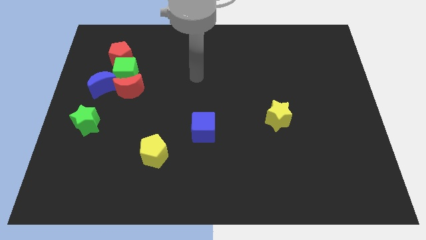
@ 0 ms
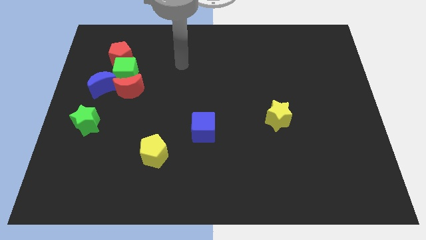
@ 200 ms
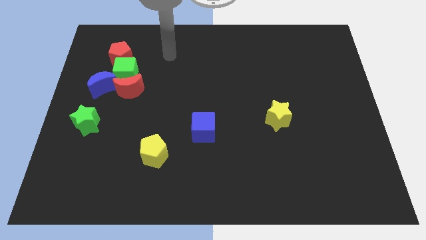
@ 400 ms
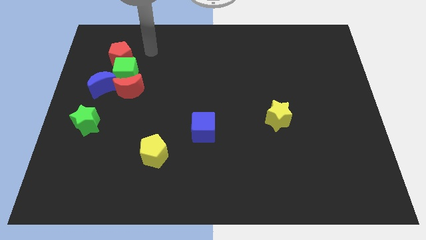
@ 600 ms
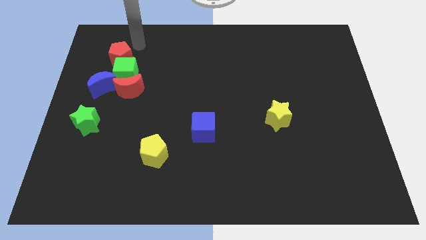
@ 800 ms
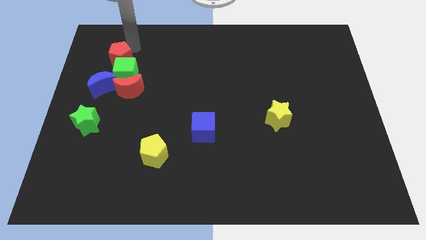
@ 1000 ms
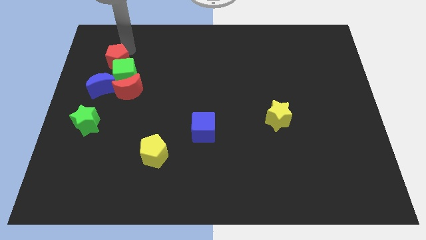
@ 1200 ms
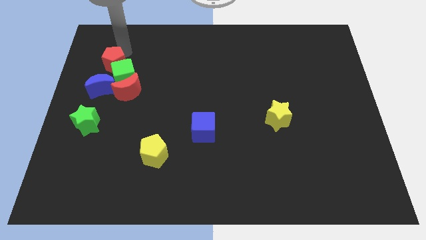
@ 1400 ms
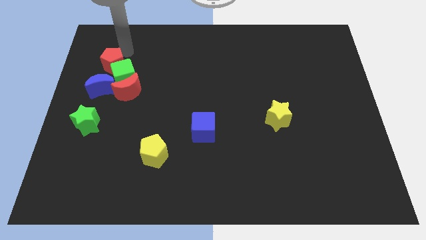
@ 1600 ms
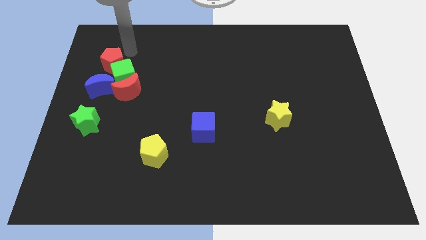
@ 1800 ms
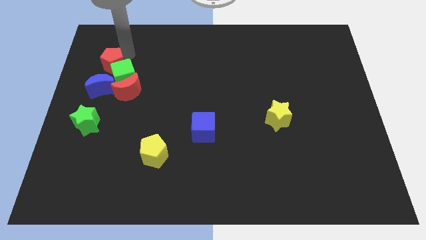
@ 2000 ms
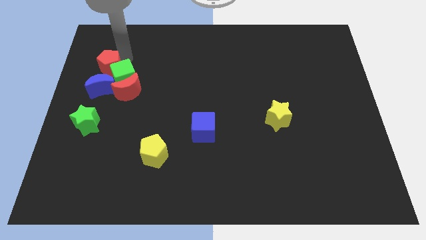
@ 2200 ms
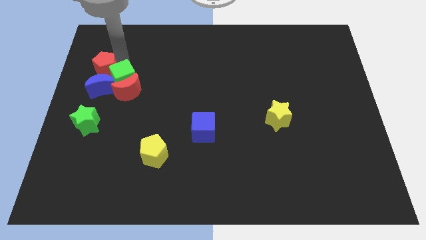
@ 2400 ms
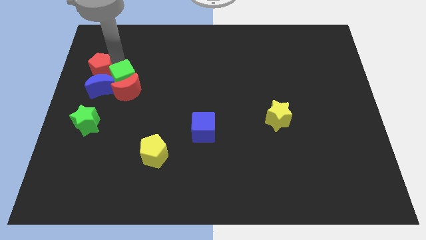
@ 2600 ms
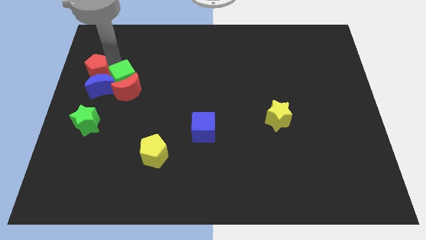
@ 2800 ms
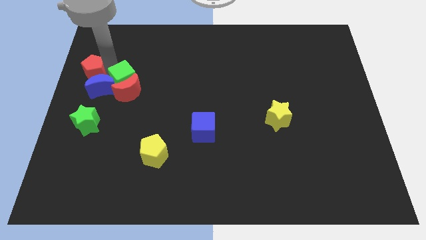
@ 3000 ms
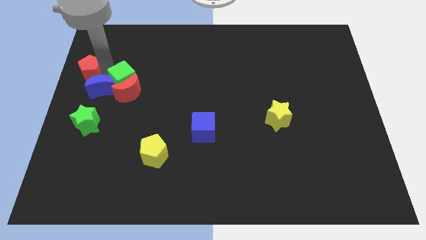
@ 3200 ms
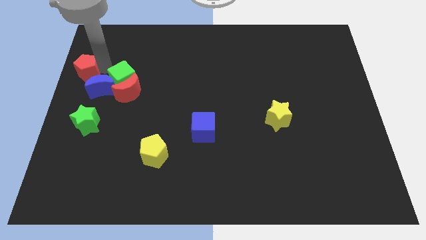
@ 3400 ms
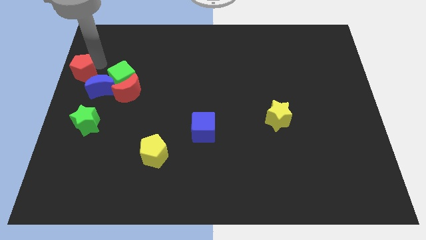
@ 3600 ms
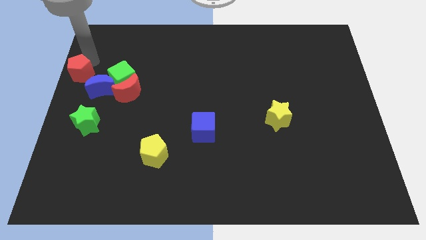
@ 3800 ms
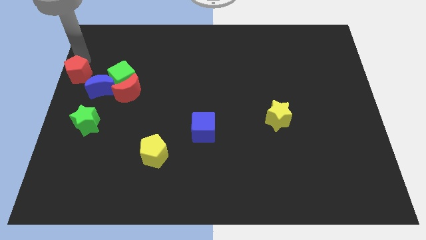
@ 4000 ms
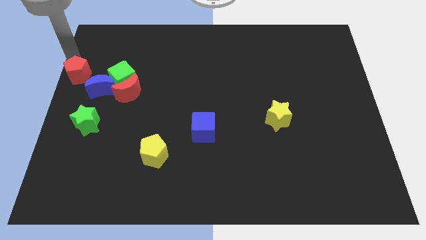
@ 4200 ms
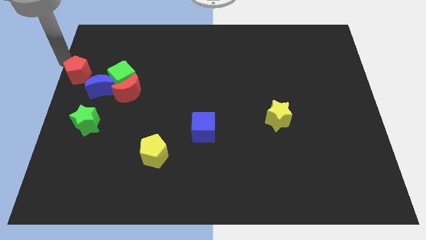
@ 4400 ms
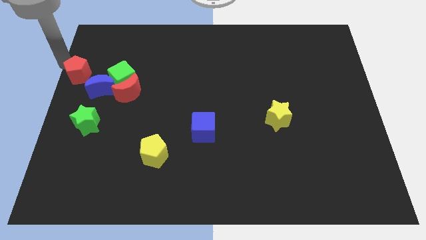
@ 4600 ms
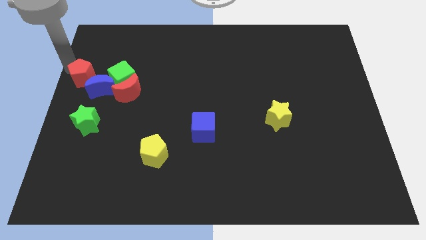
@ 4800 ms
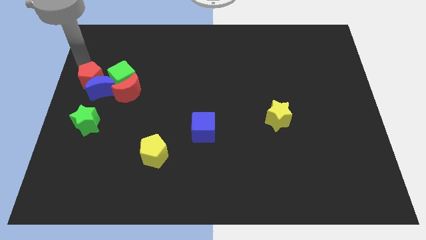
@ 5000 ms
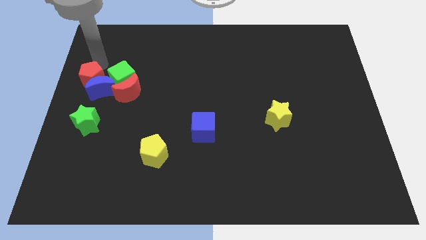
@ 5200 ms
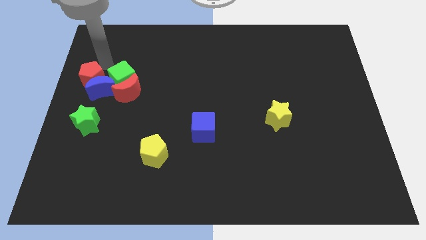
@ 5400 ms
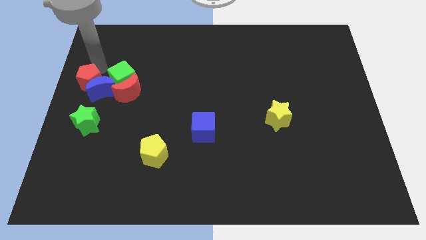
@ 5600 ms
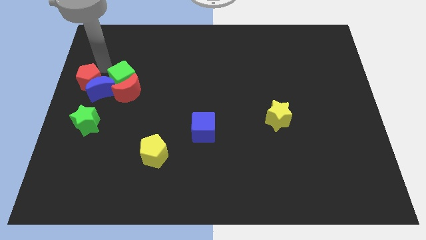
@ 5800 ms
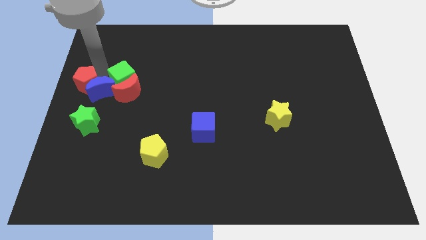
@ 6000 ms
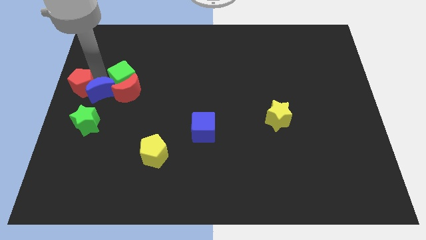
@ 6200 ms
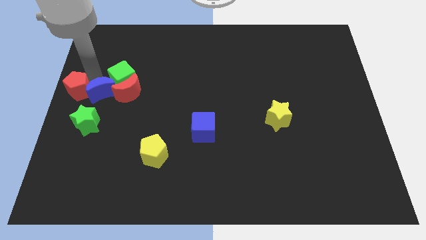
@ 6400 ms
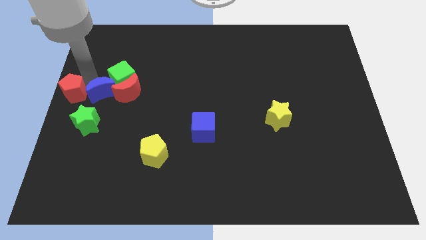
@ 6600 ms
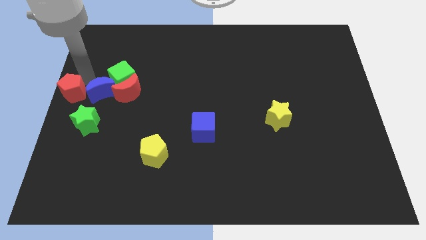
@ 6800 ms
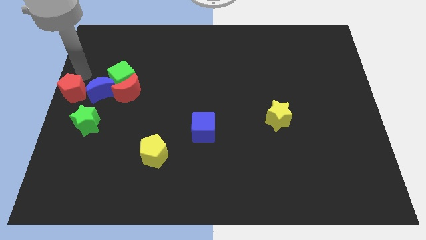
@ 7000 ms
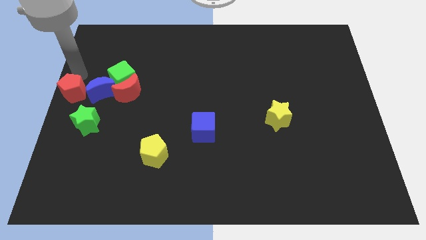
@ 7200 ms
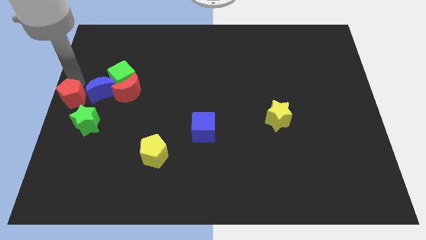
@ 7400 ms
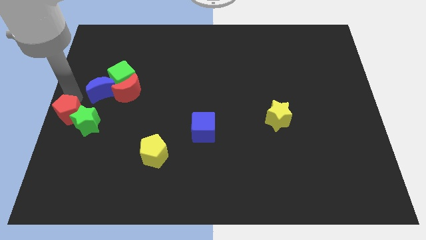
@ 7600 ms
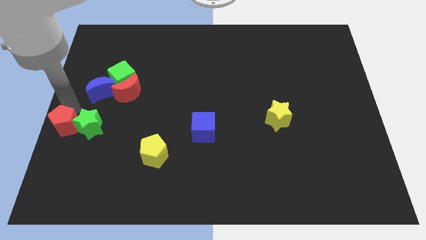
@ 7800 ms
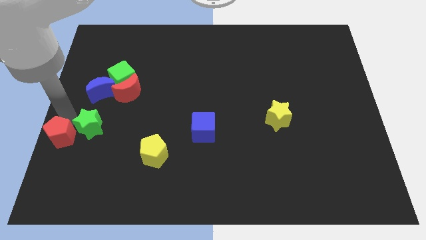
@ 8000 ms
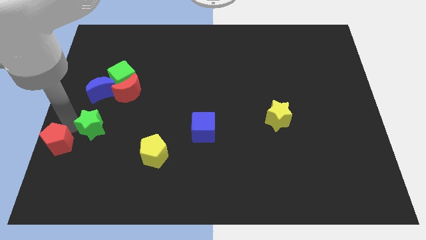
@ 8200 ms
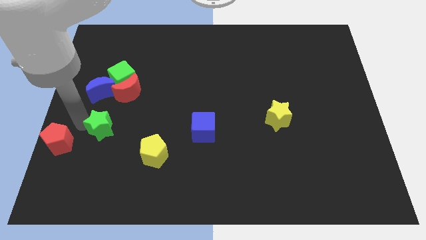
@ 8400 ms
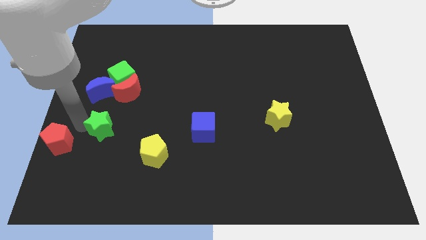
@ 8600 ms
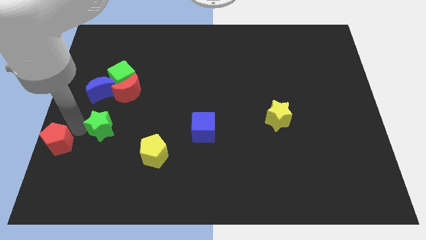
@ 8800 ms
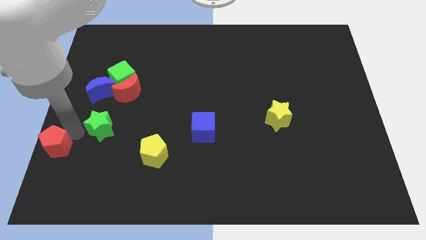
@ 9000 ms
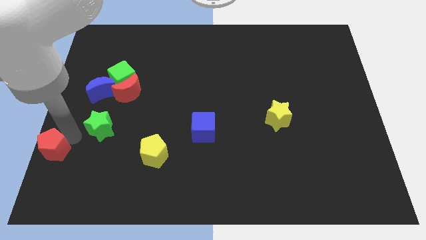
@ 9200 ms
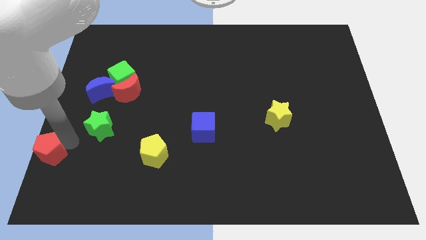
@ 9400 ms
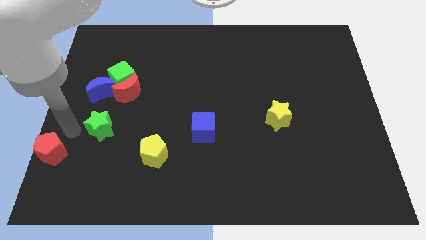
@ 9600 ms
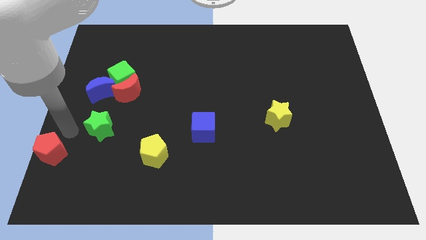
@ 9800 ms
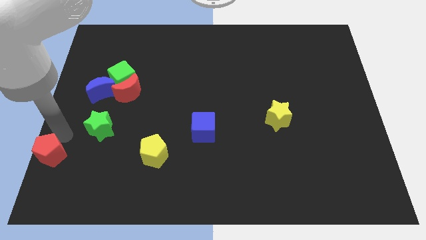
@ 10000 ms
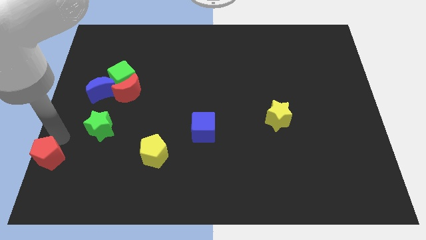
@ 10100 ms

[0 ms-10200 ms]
slide the red pentagon to the bottom left of the board

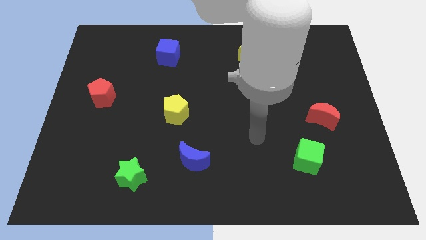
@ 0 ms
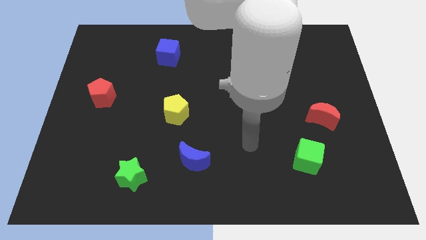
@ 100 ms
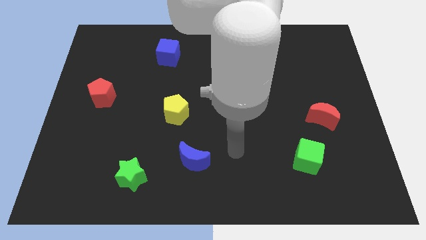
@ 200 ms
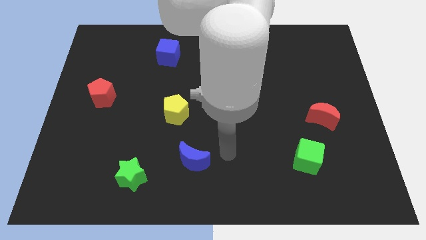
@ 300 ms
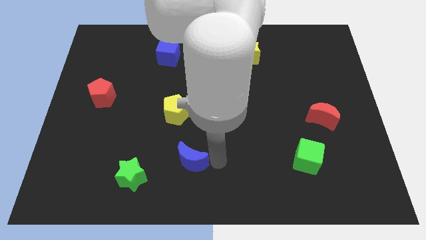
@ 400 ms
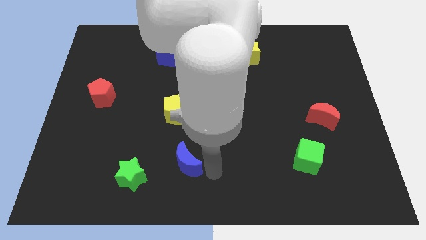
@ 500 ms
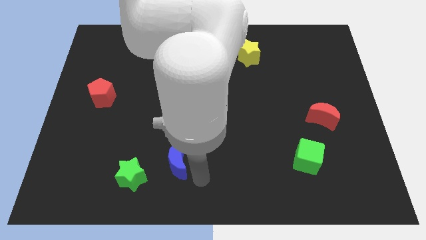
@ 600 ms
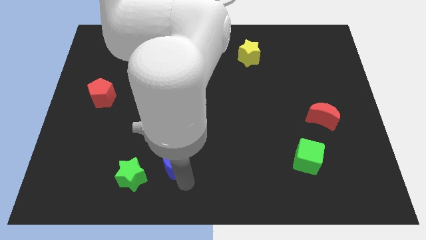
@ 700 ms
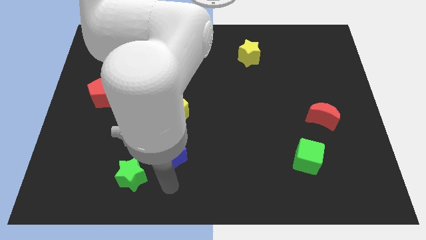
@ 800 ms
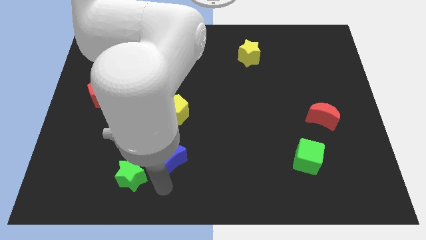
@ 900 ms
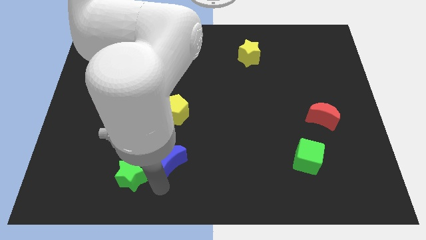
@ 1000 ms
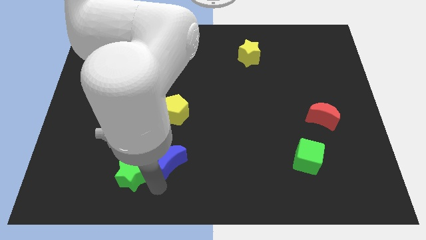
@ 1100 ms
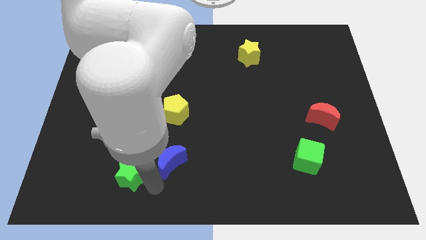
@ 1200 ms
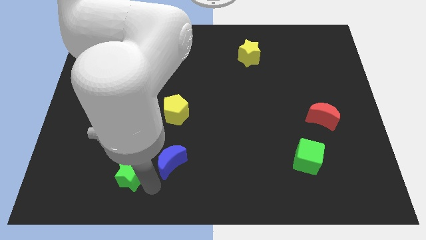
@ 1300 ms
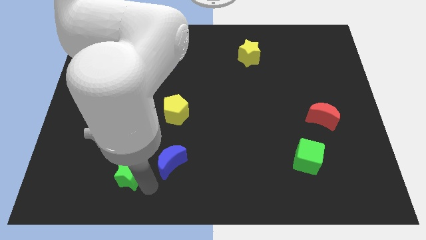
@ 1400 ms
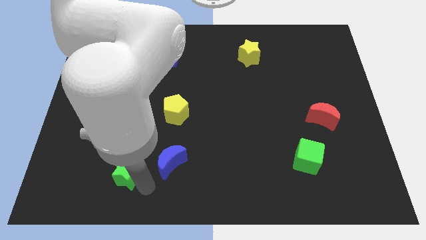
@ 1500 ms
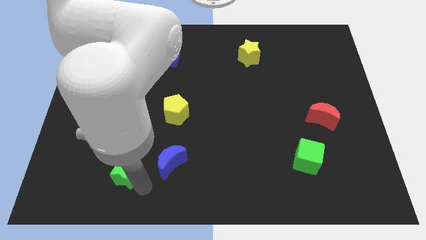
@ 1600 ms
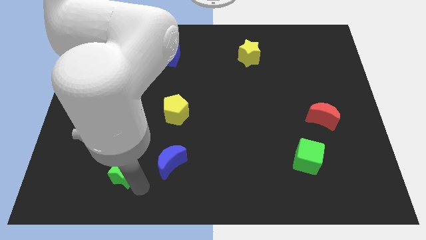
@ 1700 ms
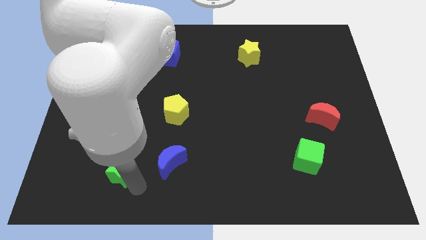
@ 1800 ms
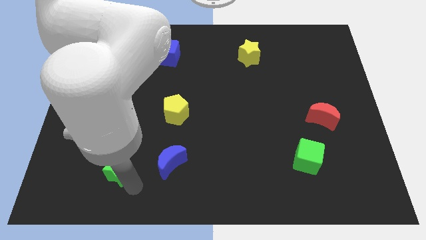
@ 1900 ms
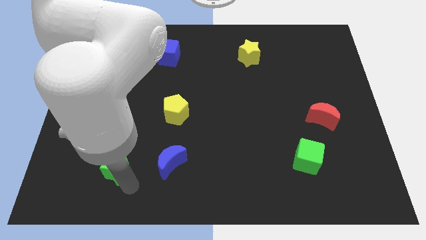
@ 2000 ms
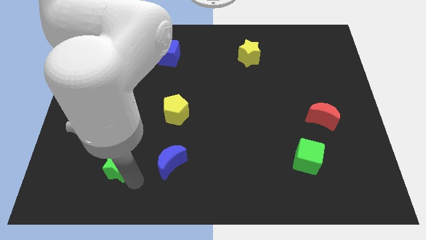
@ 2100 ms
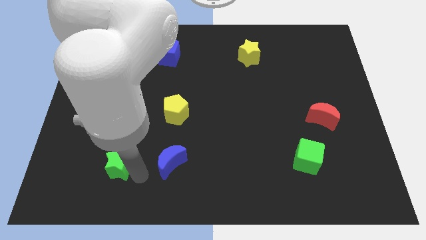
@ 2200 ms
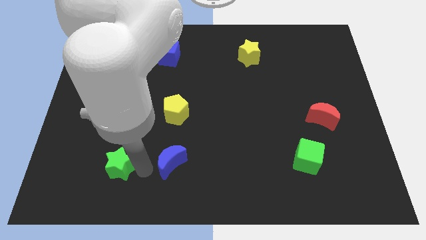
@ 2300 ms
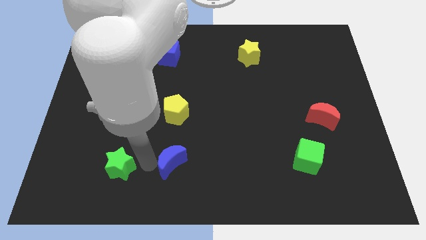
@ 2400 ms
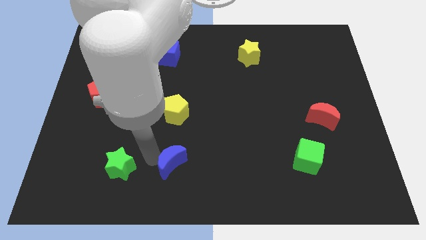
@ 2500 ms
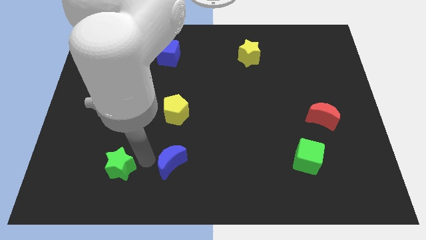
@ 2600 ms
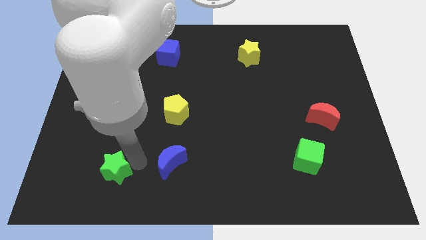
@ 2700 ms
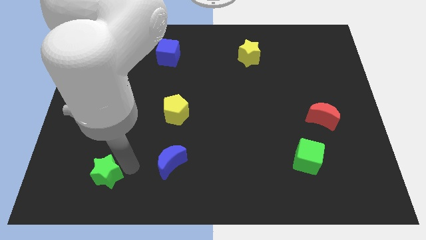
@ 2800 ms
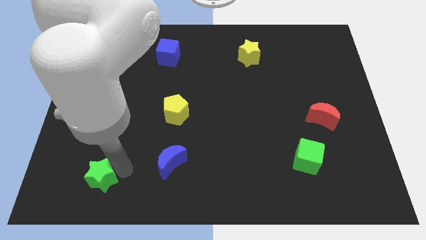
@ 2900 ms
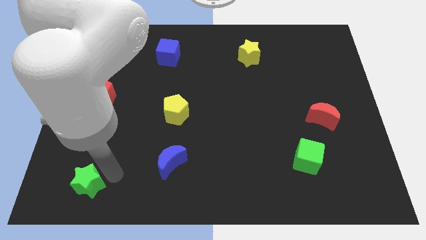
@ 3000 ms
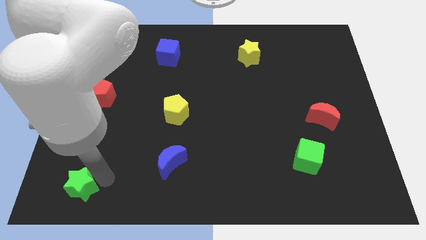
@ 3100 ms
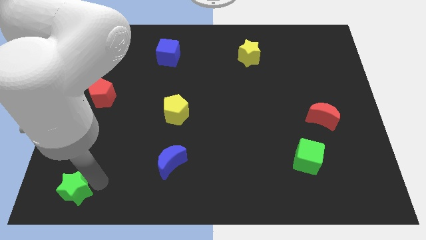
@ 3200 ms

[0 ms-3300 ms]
put the green star to the bottom left corner
